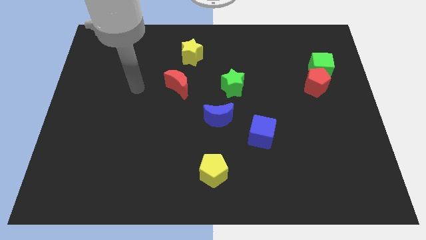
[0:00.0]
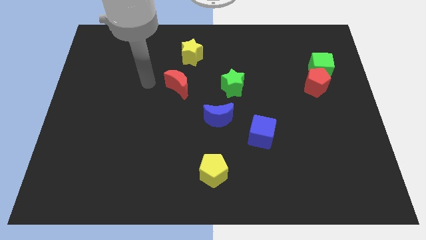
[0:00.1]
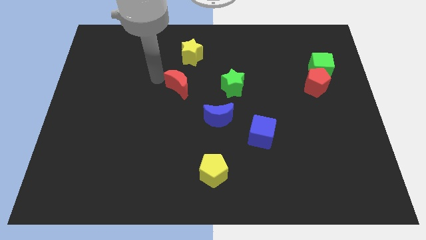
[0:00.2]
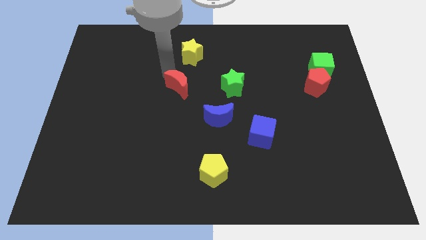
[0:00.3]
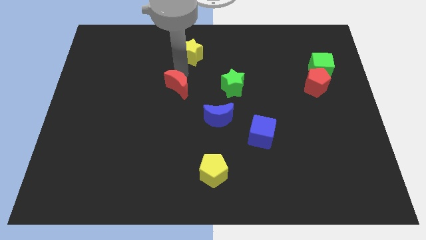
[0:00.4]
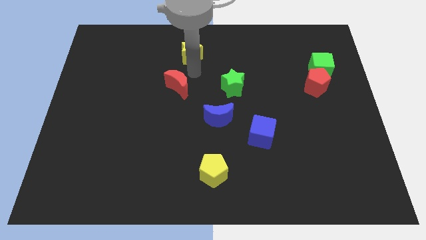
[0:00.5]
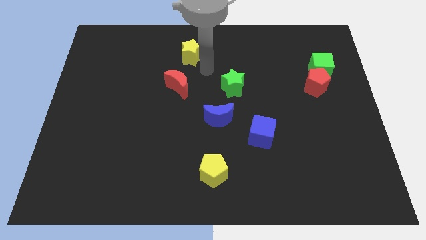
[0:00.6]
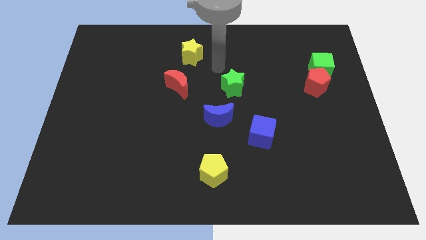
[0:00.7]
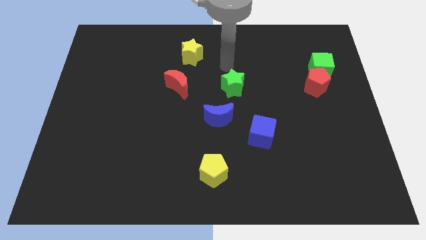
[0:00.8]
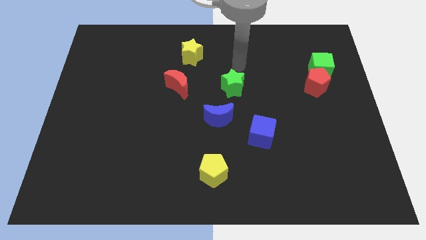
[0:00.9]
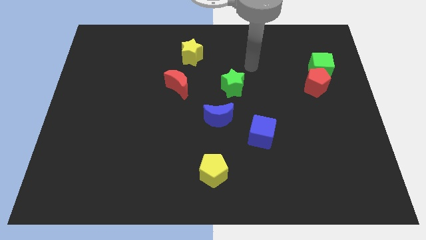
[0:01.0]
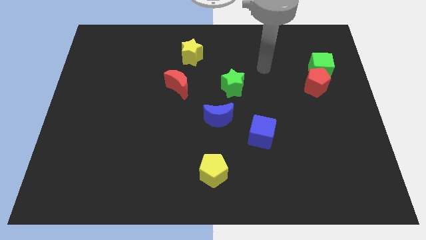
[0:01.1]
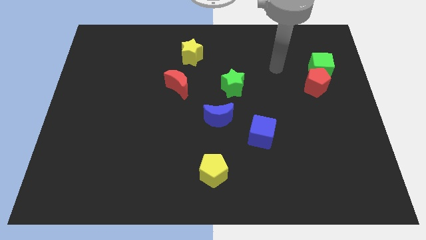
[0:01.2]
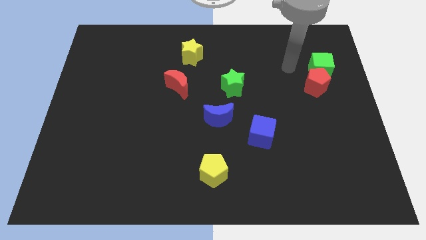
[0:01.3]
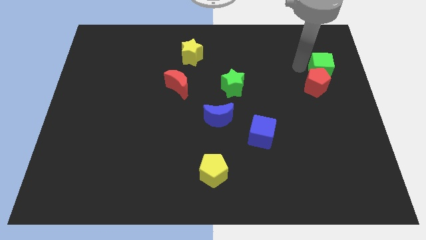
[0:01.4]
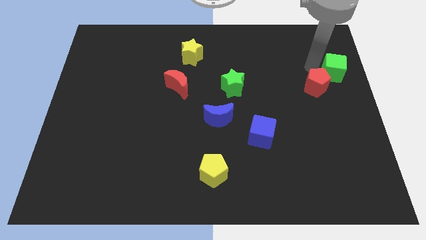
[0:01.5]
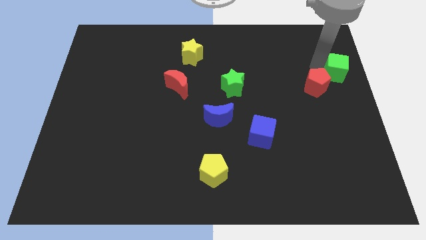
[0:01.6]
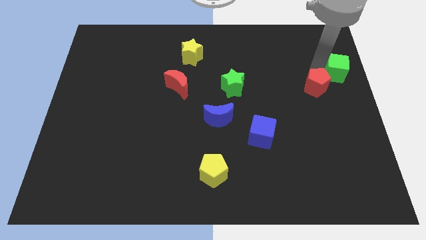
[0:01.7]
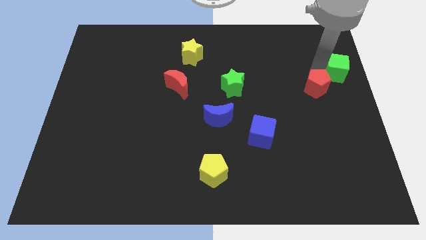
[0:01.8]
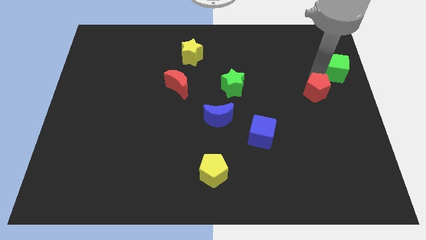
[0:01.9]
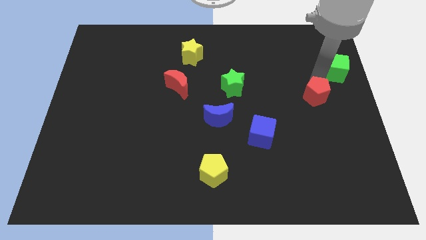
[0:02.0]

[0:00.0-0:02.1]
pull the red pentagon apart from the green cube

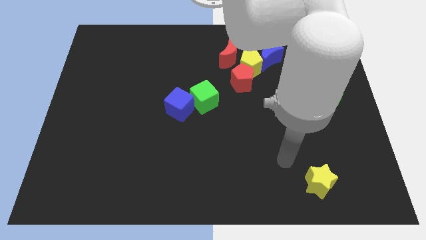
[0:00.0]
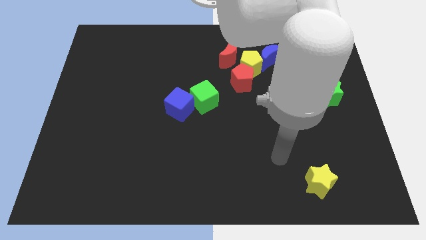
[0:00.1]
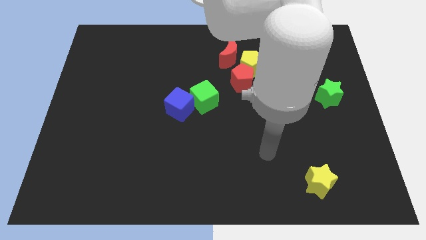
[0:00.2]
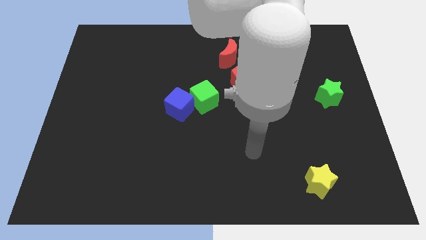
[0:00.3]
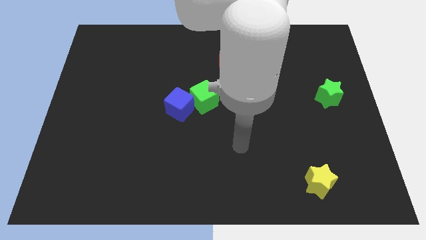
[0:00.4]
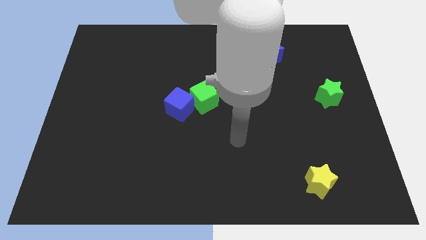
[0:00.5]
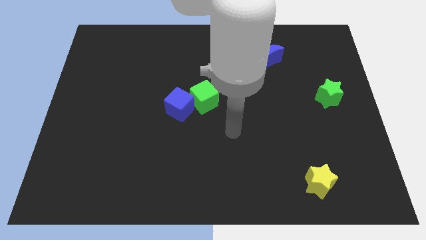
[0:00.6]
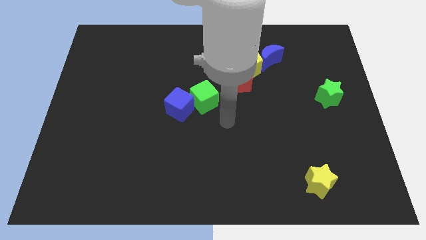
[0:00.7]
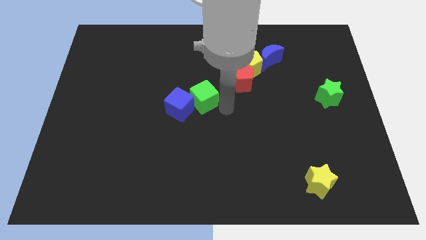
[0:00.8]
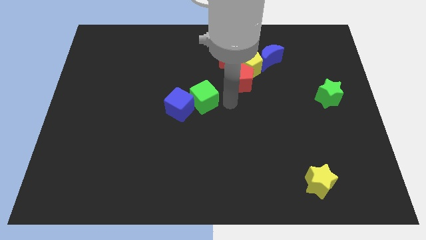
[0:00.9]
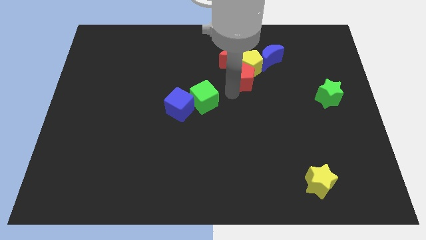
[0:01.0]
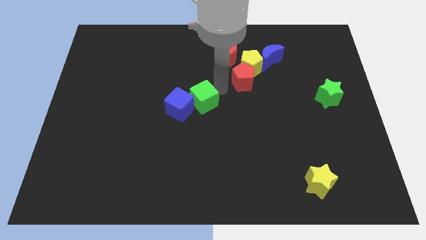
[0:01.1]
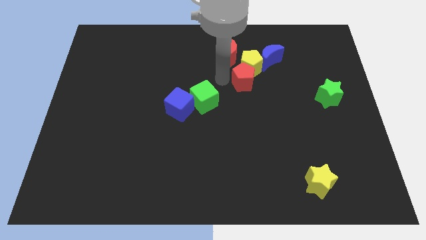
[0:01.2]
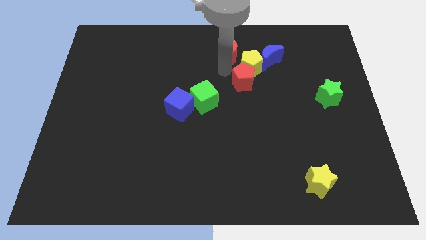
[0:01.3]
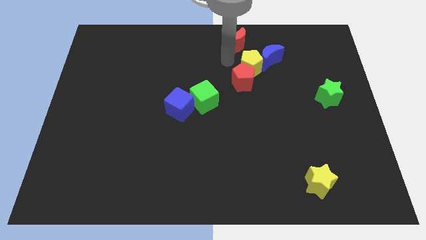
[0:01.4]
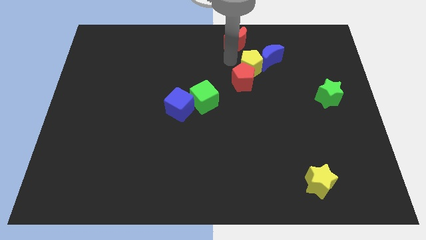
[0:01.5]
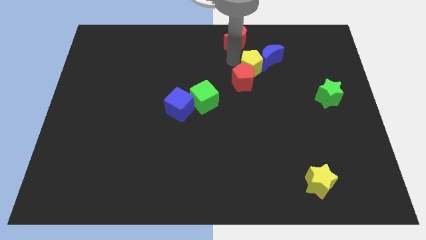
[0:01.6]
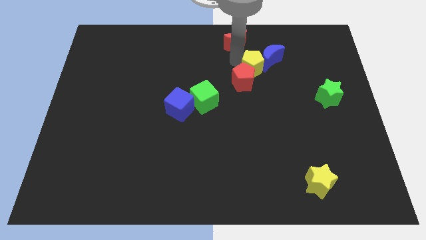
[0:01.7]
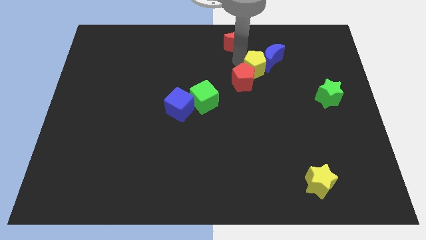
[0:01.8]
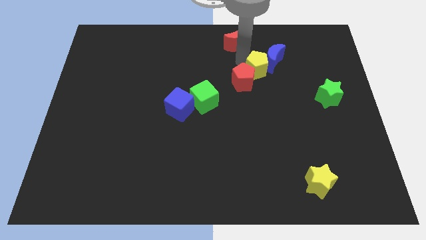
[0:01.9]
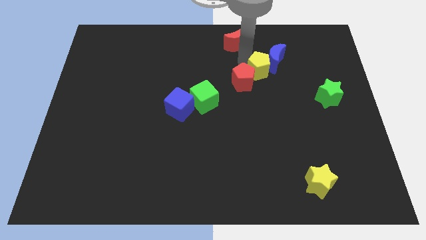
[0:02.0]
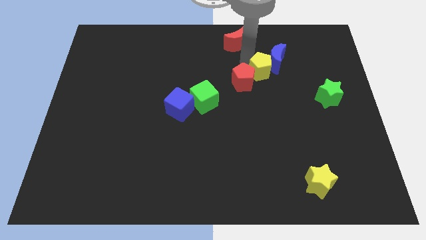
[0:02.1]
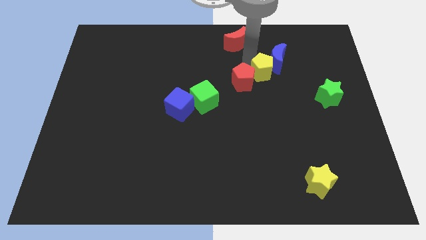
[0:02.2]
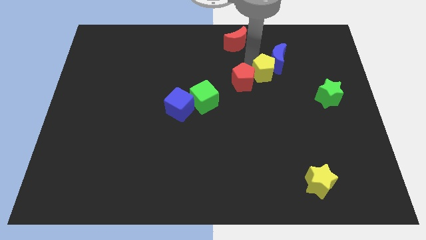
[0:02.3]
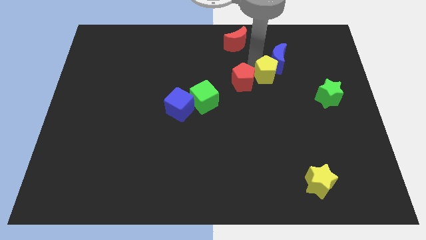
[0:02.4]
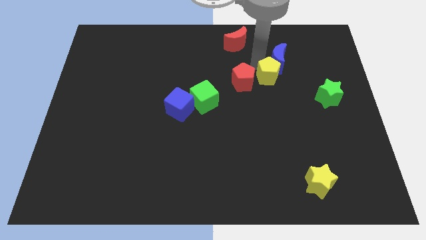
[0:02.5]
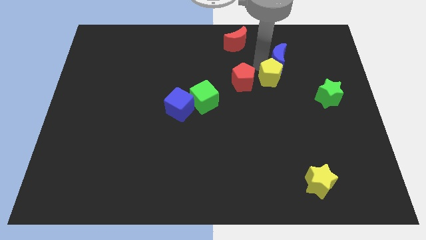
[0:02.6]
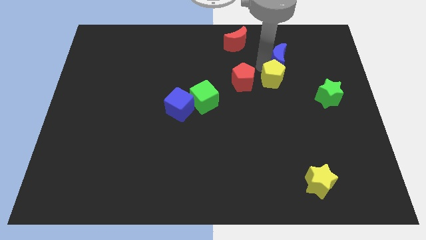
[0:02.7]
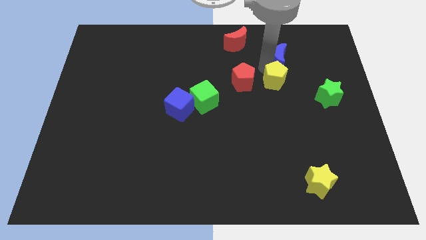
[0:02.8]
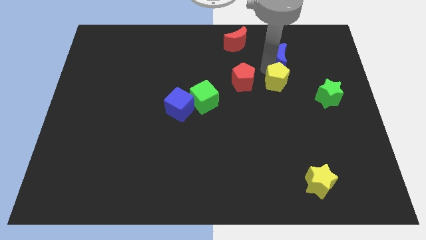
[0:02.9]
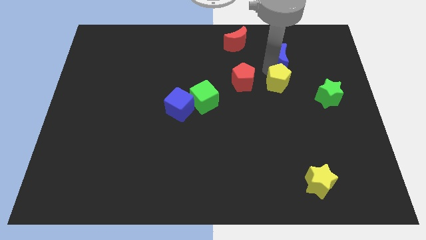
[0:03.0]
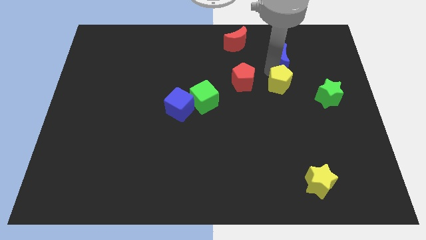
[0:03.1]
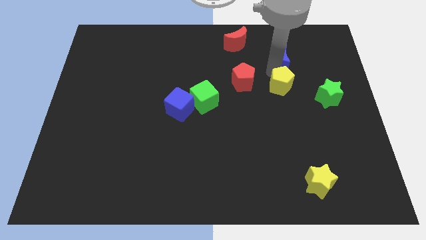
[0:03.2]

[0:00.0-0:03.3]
separate the yellow pentagon from the group of blocks

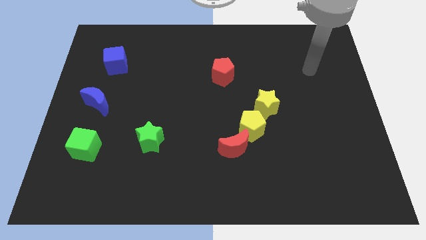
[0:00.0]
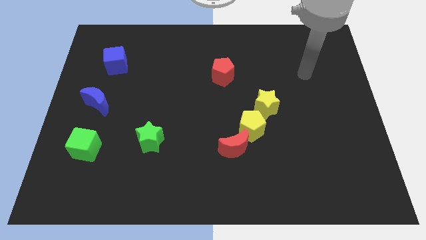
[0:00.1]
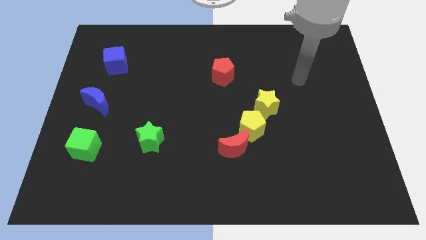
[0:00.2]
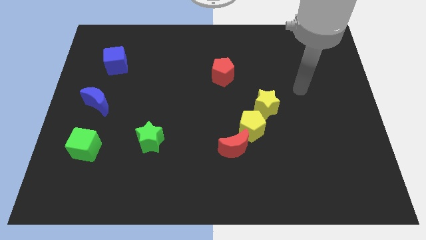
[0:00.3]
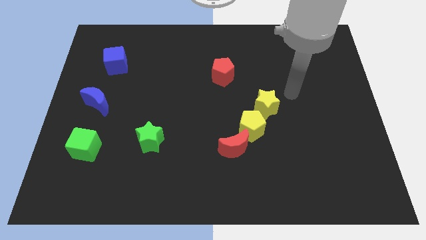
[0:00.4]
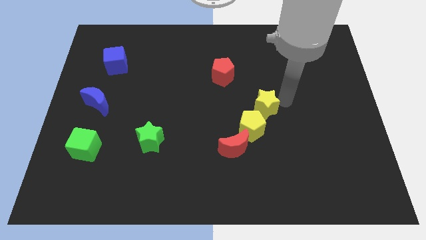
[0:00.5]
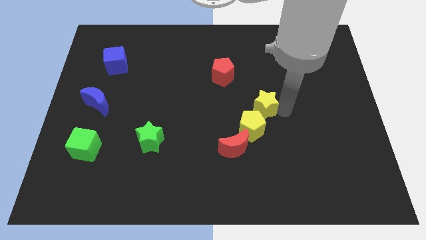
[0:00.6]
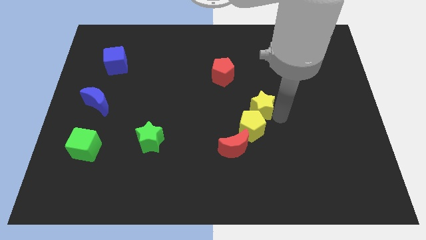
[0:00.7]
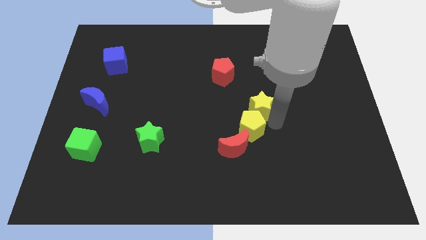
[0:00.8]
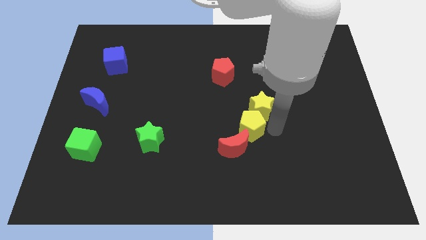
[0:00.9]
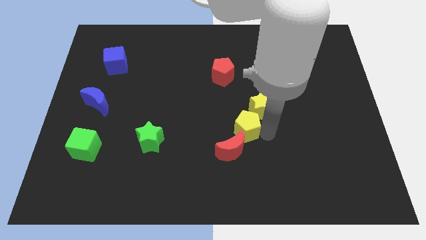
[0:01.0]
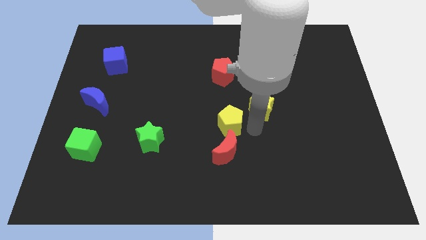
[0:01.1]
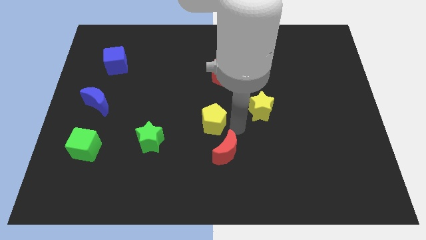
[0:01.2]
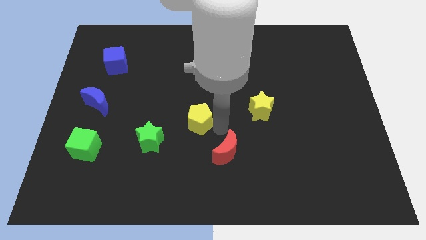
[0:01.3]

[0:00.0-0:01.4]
move the red moon away from the yellow pentagon

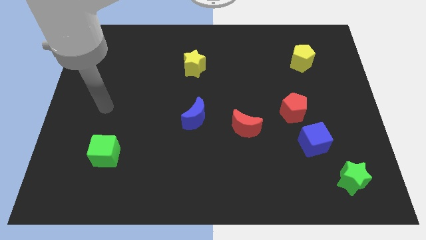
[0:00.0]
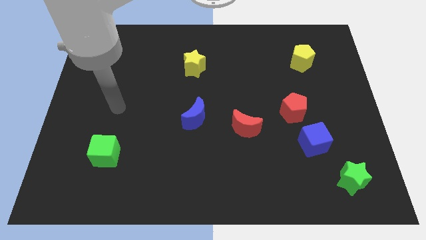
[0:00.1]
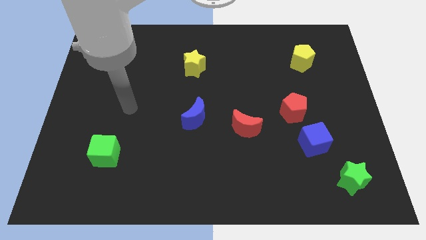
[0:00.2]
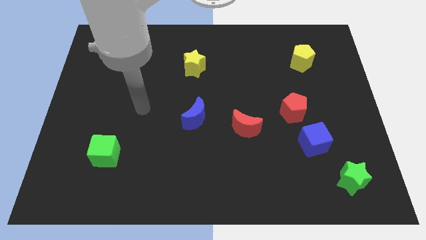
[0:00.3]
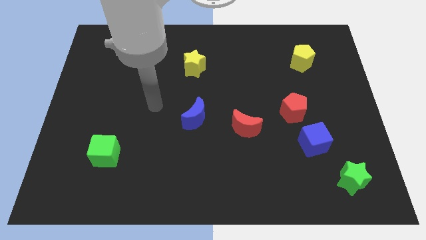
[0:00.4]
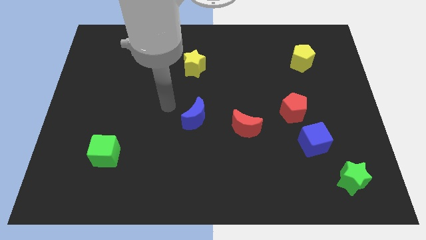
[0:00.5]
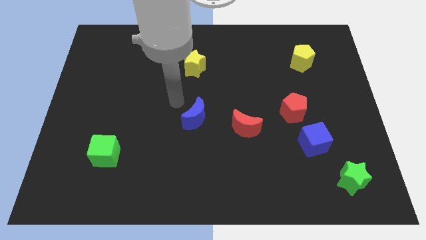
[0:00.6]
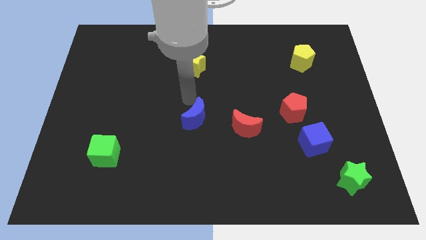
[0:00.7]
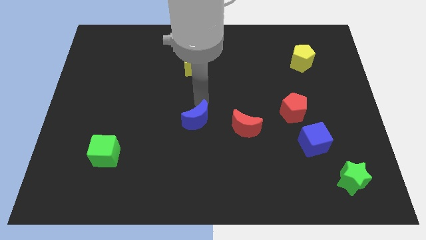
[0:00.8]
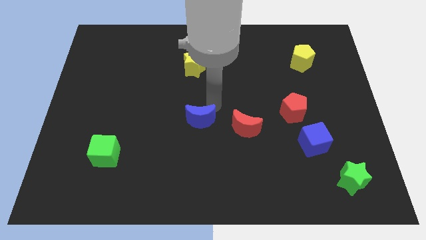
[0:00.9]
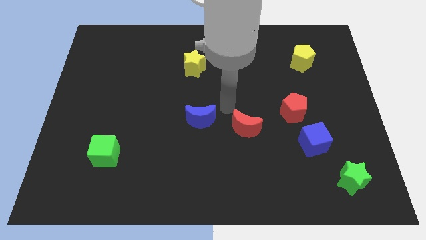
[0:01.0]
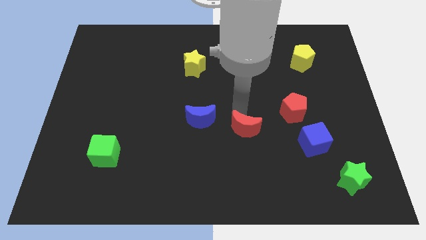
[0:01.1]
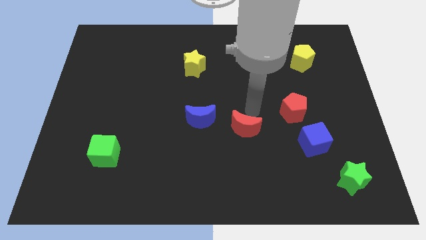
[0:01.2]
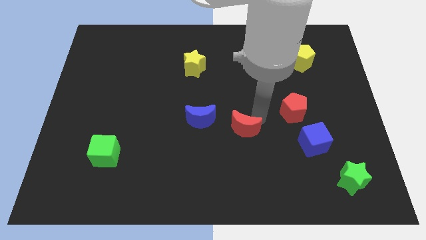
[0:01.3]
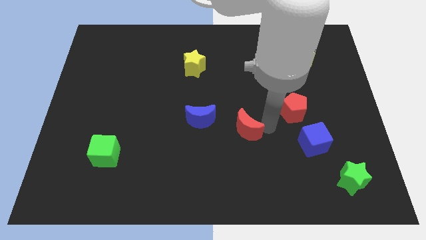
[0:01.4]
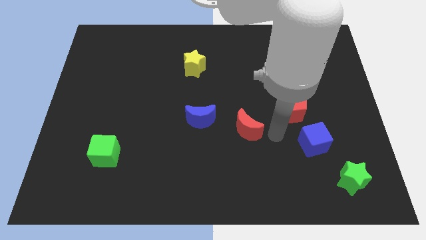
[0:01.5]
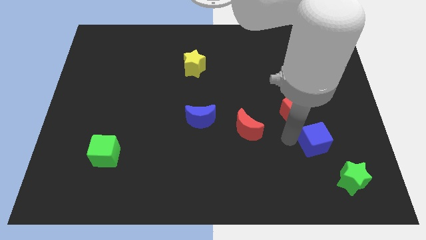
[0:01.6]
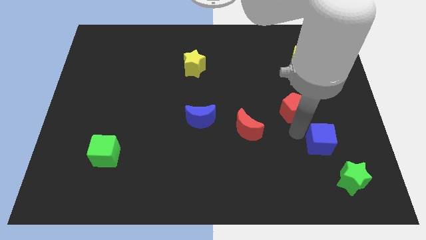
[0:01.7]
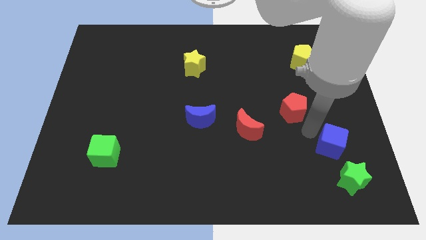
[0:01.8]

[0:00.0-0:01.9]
move the red pentagon away from the blue cube

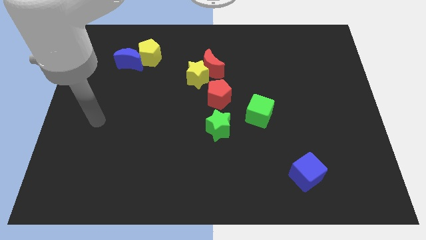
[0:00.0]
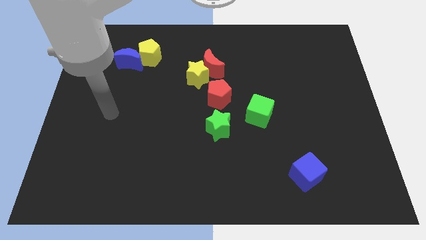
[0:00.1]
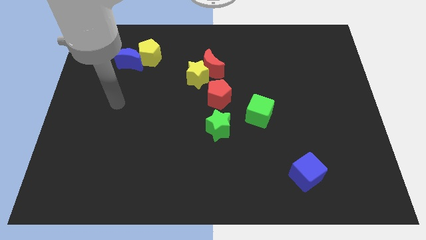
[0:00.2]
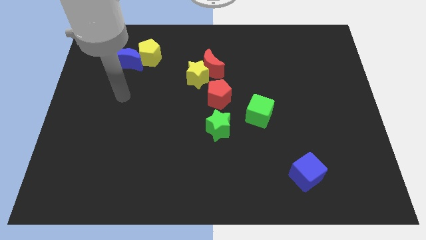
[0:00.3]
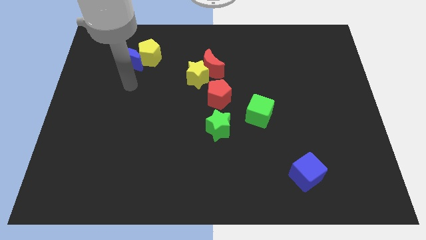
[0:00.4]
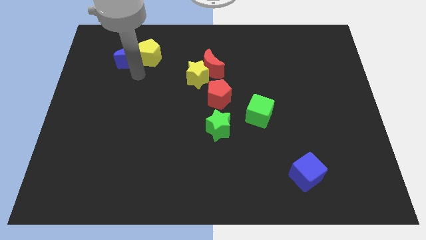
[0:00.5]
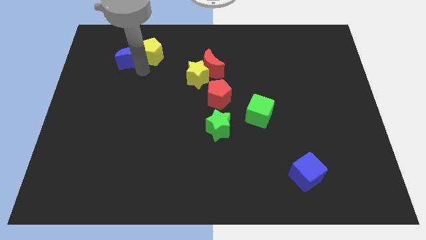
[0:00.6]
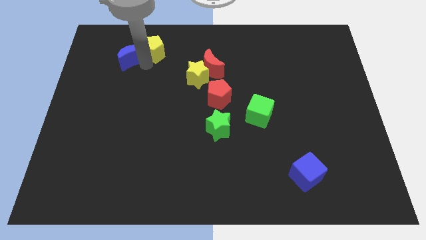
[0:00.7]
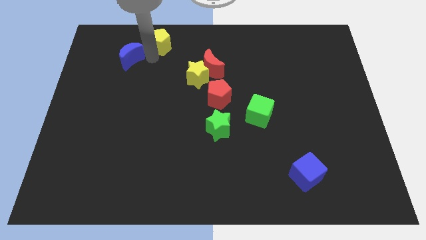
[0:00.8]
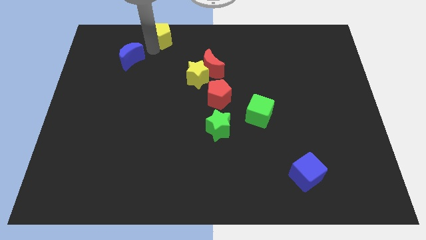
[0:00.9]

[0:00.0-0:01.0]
pull the blue moon apart from the yellow pentagon
